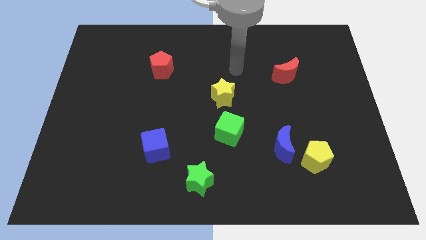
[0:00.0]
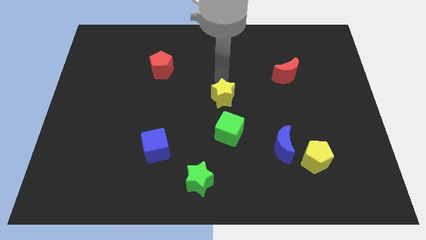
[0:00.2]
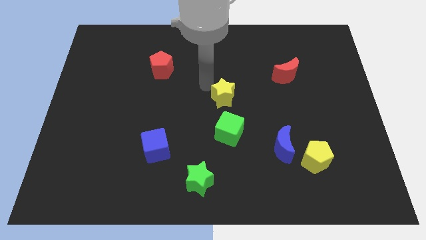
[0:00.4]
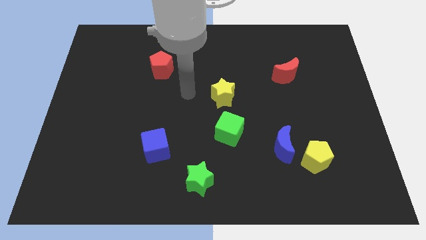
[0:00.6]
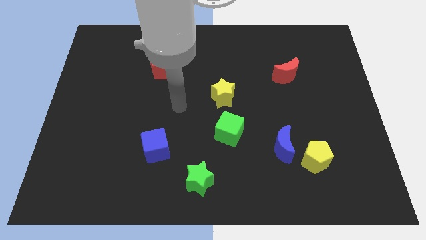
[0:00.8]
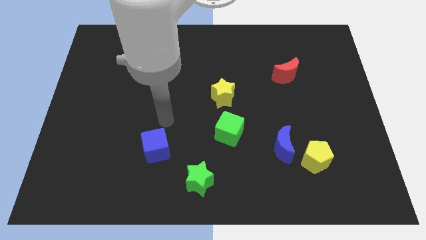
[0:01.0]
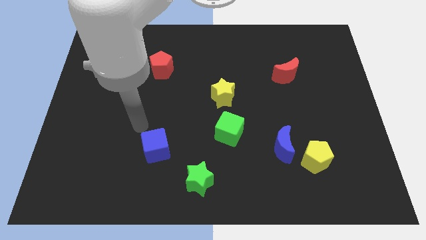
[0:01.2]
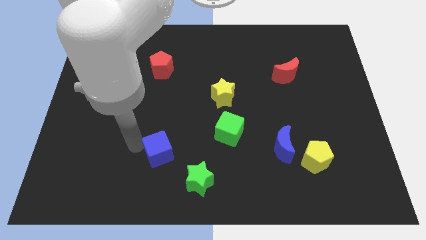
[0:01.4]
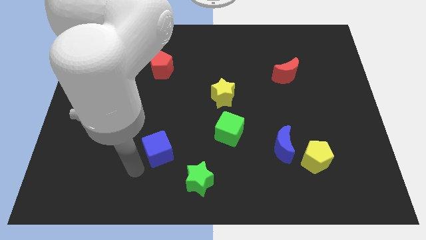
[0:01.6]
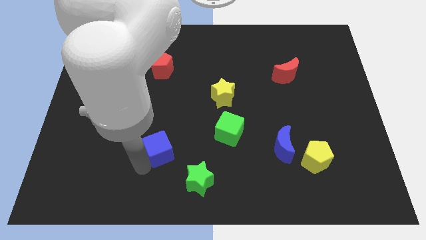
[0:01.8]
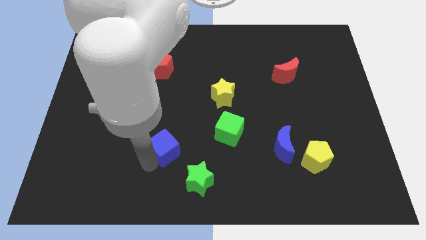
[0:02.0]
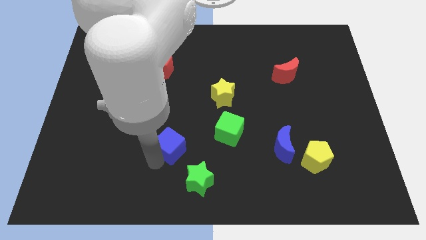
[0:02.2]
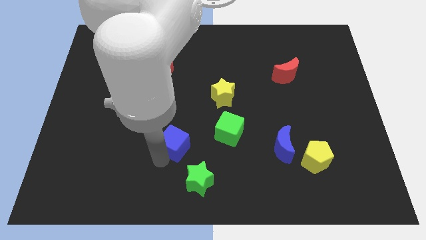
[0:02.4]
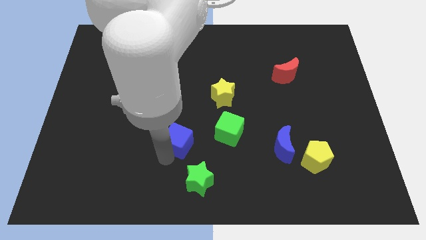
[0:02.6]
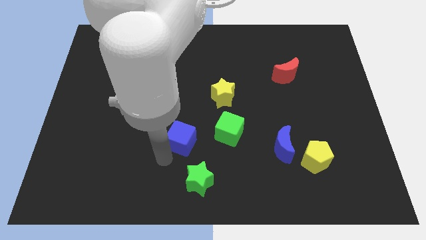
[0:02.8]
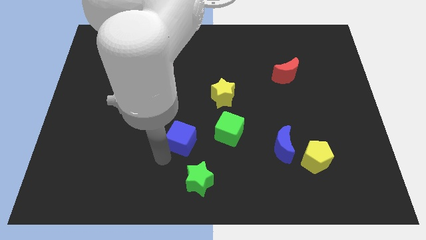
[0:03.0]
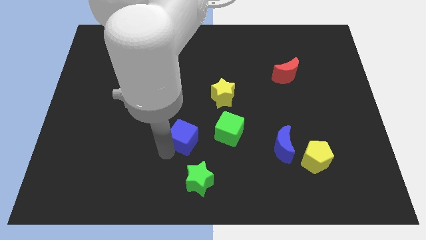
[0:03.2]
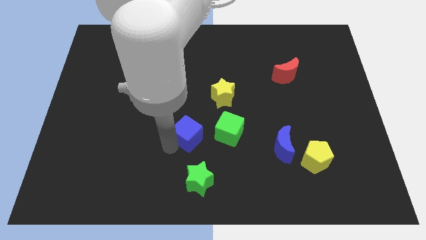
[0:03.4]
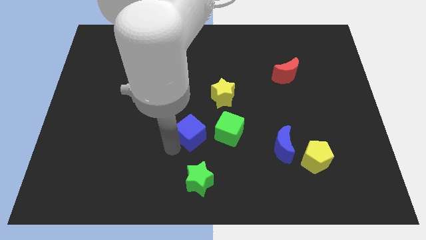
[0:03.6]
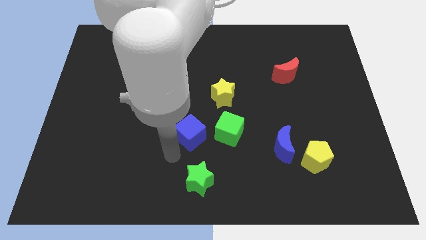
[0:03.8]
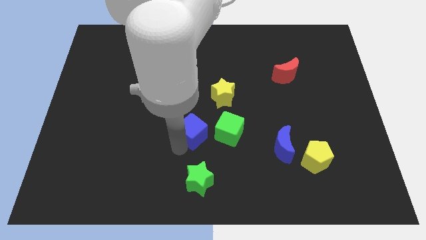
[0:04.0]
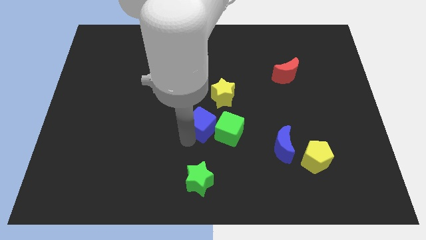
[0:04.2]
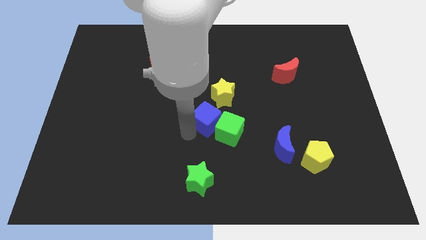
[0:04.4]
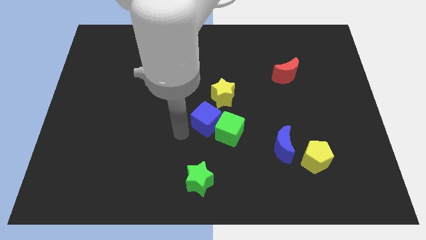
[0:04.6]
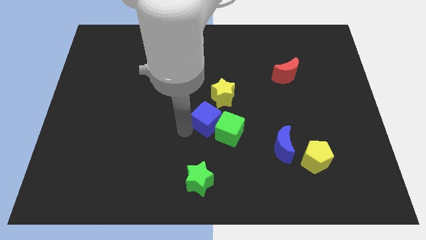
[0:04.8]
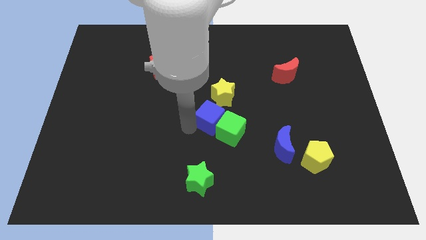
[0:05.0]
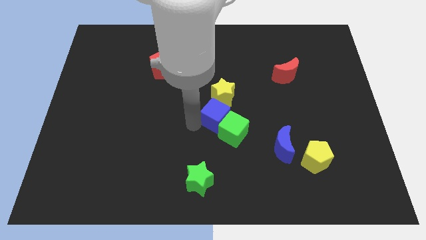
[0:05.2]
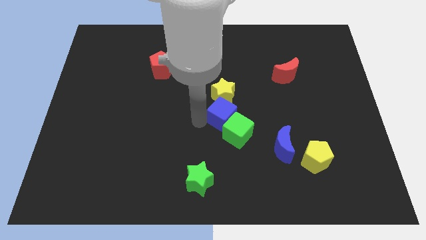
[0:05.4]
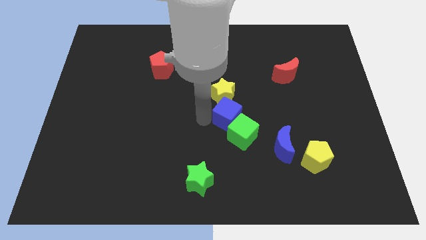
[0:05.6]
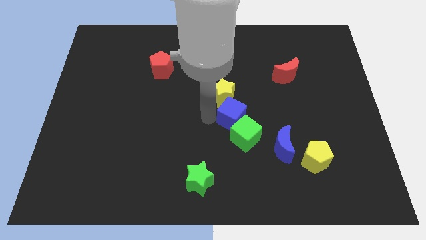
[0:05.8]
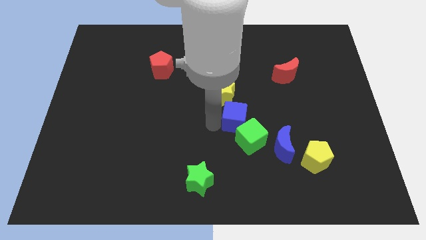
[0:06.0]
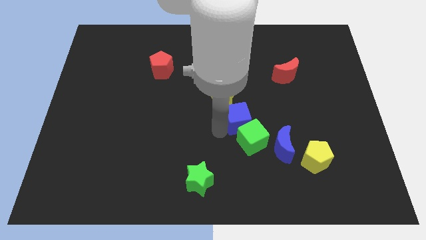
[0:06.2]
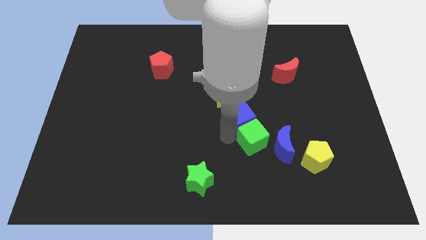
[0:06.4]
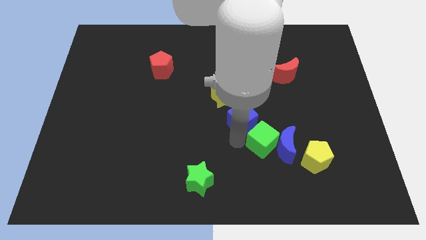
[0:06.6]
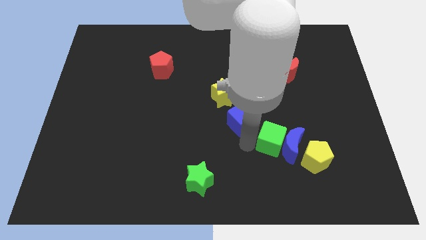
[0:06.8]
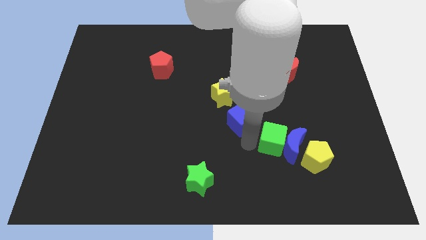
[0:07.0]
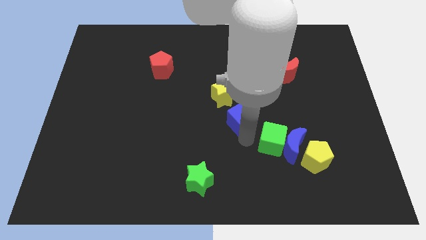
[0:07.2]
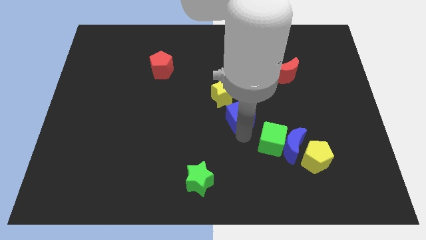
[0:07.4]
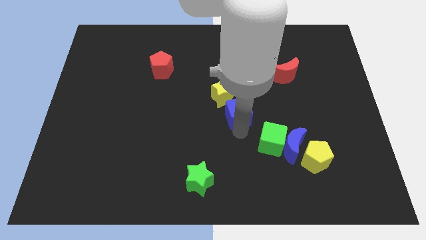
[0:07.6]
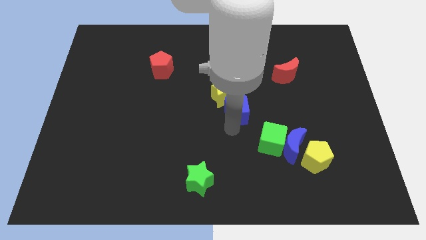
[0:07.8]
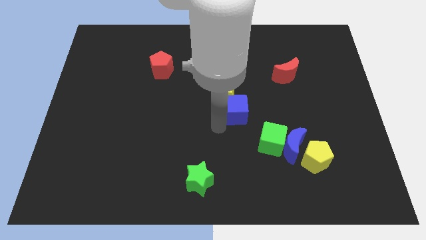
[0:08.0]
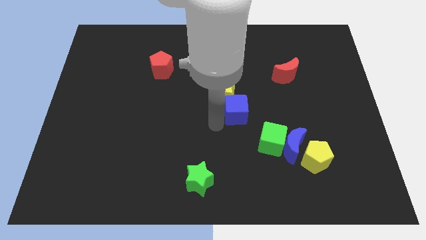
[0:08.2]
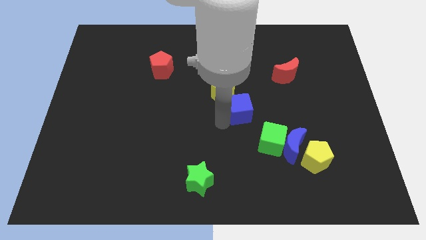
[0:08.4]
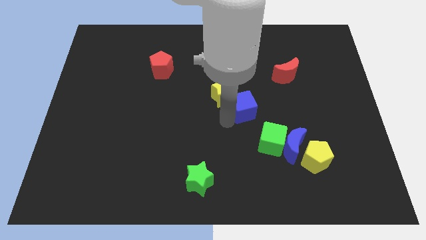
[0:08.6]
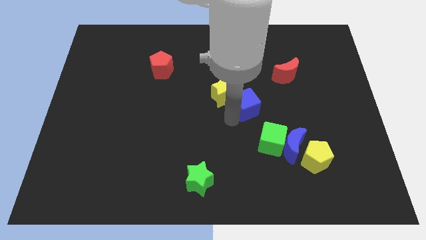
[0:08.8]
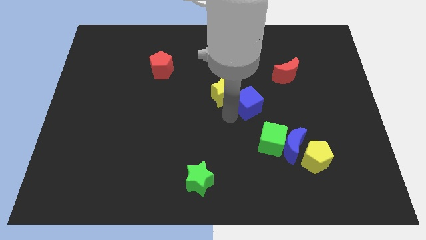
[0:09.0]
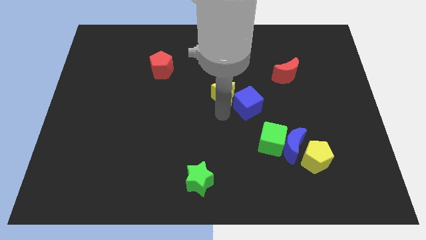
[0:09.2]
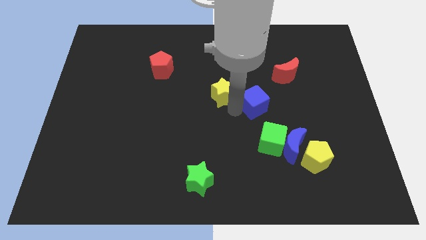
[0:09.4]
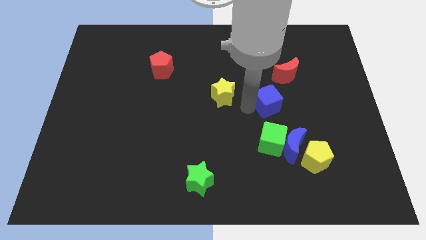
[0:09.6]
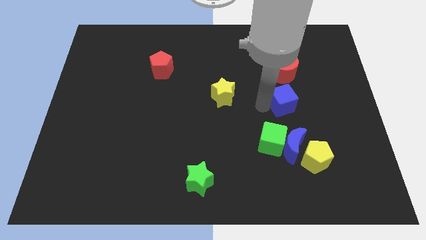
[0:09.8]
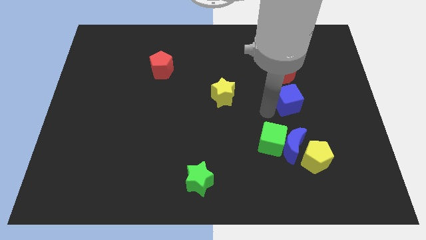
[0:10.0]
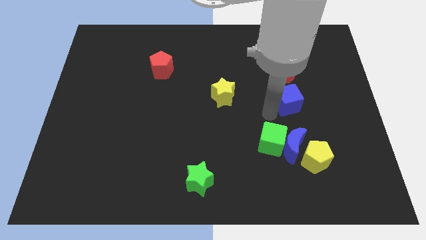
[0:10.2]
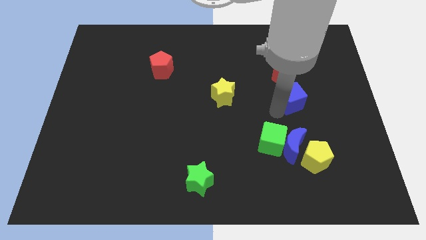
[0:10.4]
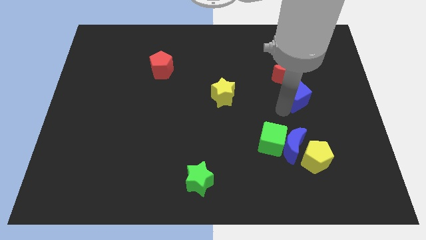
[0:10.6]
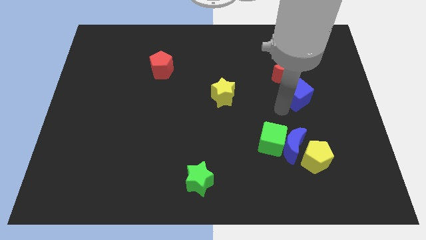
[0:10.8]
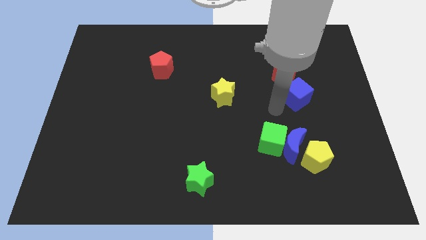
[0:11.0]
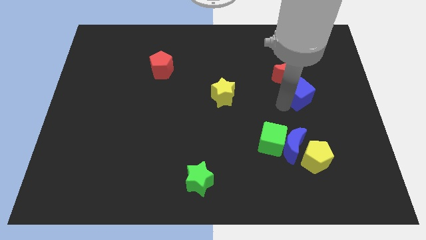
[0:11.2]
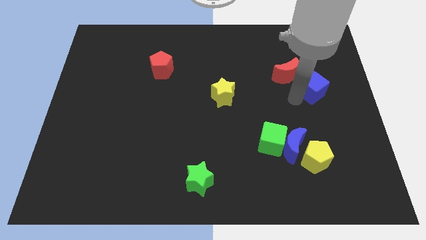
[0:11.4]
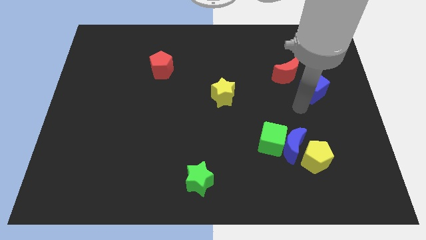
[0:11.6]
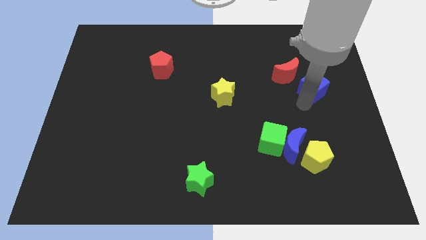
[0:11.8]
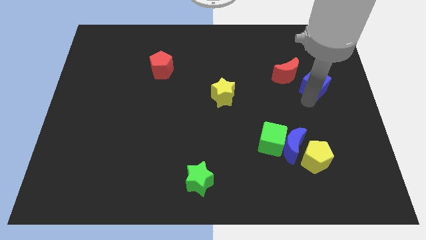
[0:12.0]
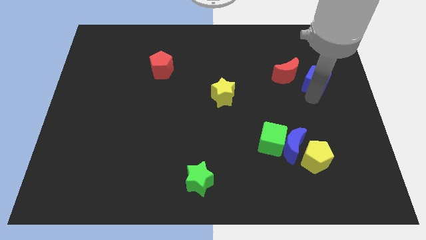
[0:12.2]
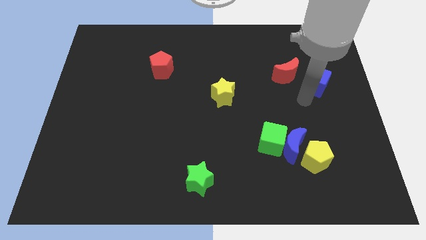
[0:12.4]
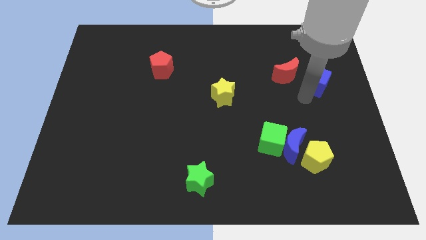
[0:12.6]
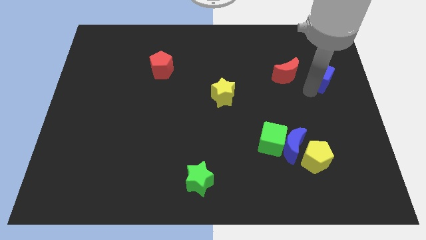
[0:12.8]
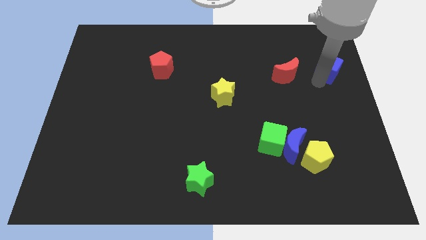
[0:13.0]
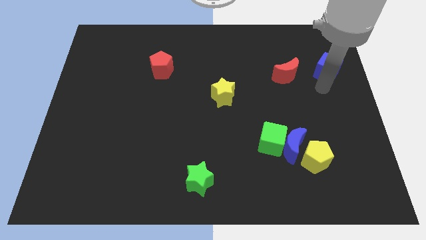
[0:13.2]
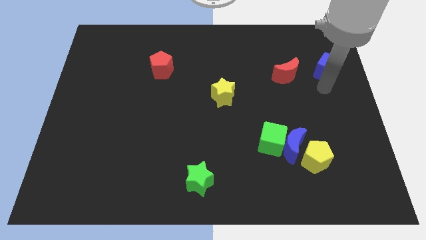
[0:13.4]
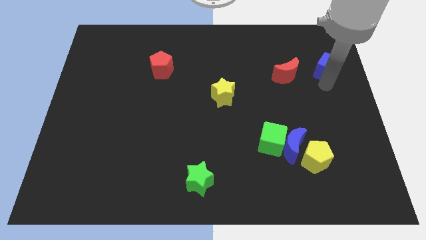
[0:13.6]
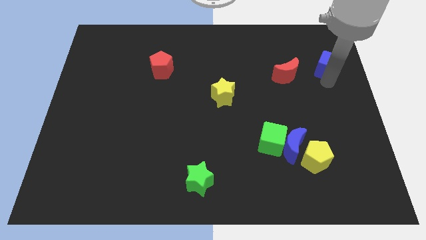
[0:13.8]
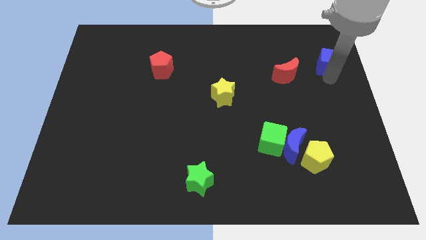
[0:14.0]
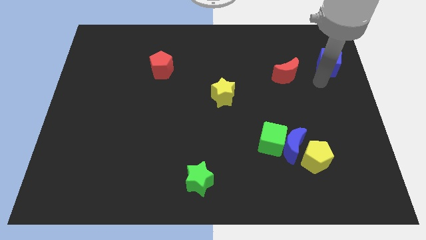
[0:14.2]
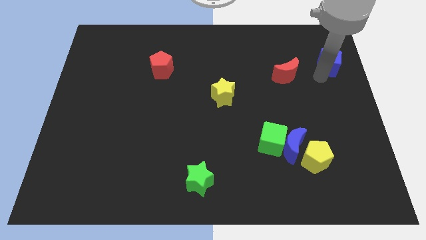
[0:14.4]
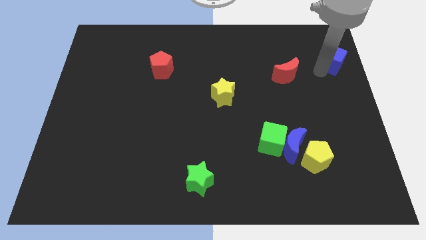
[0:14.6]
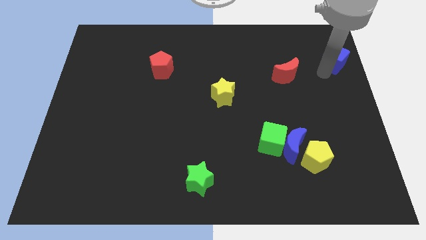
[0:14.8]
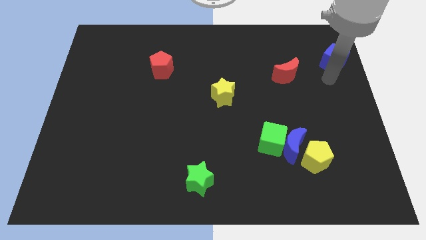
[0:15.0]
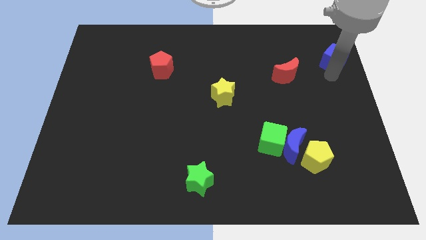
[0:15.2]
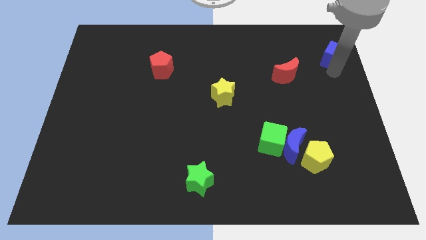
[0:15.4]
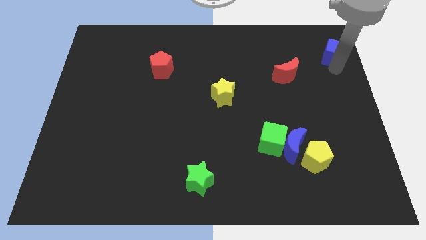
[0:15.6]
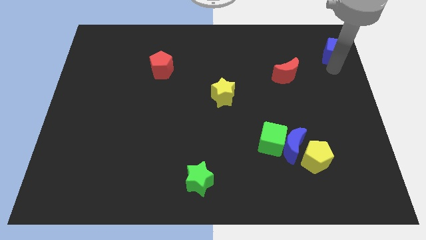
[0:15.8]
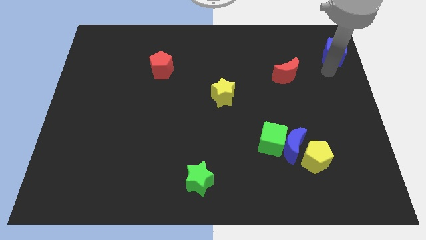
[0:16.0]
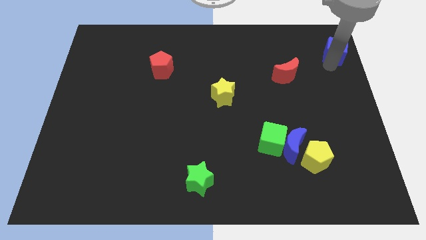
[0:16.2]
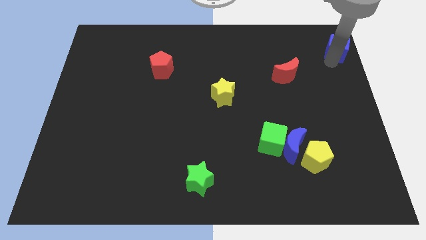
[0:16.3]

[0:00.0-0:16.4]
push the blue cube to the top right corner
